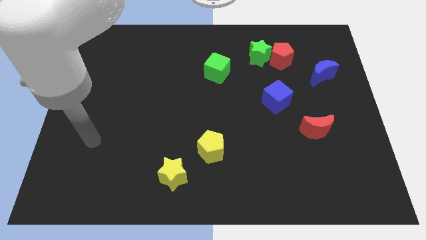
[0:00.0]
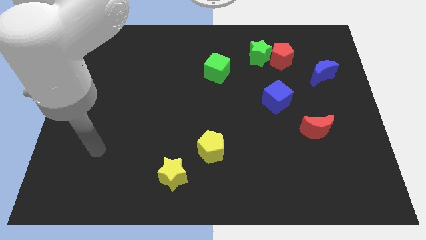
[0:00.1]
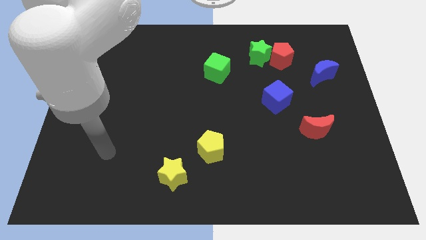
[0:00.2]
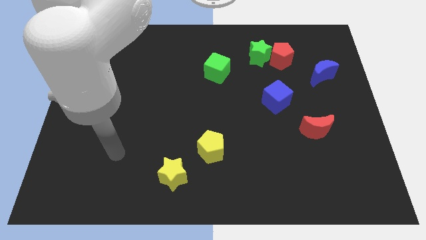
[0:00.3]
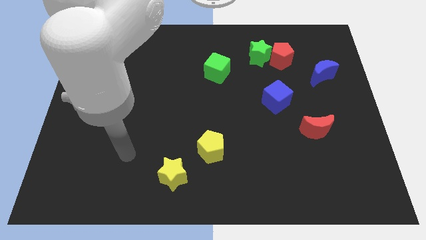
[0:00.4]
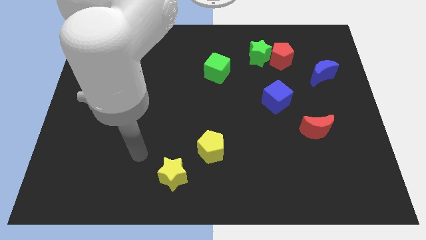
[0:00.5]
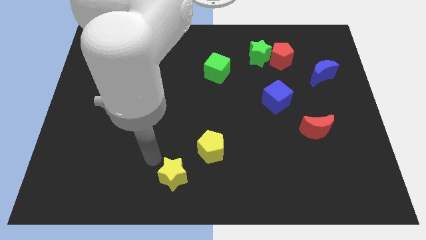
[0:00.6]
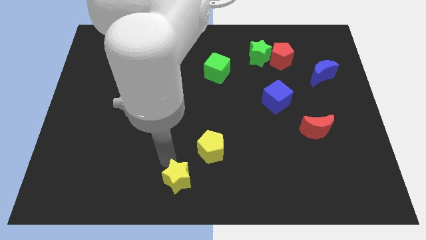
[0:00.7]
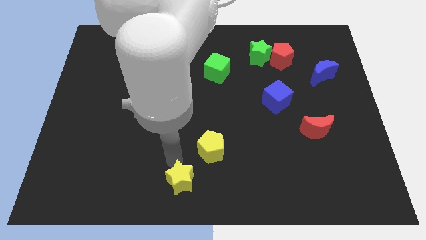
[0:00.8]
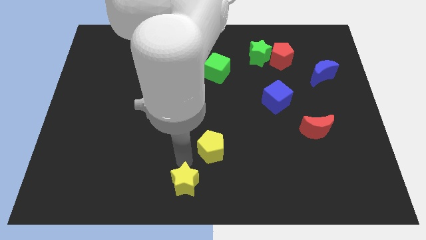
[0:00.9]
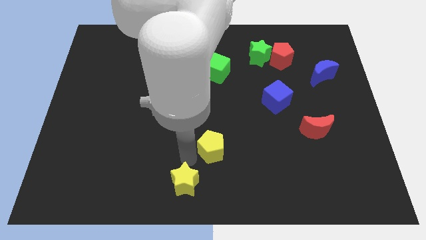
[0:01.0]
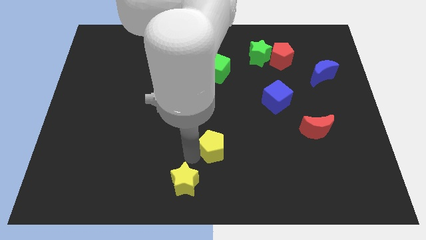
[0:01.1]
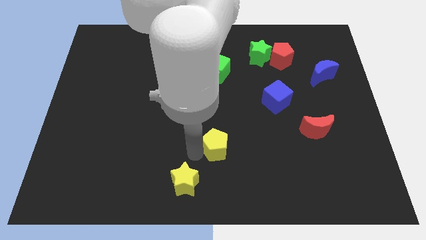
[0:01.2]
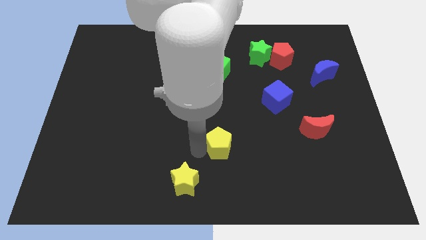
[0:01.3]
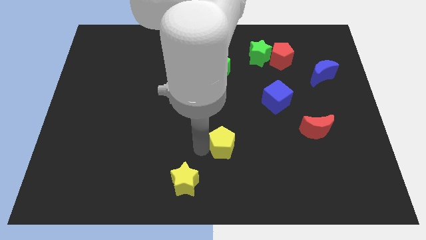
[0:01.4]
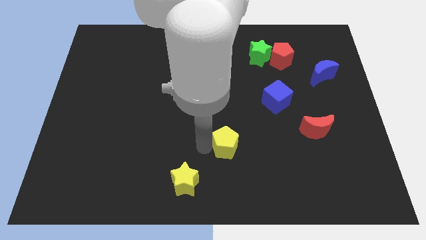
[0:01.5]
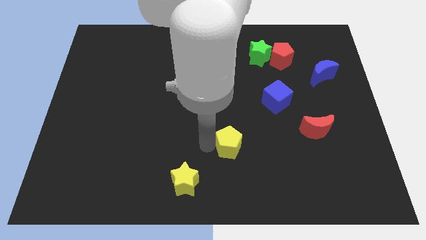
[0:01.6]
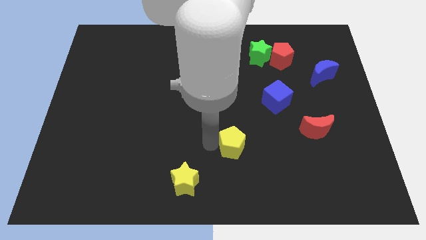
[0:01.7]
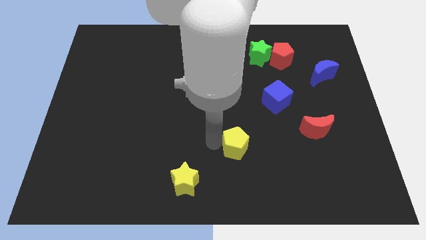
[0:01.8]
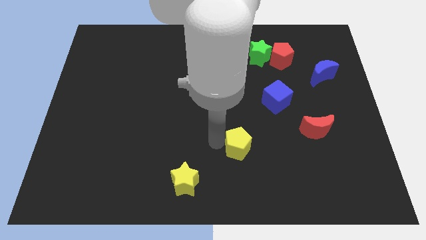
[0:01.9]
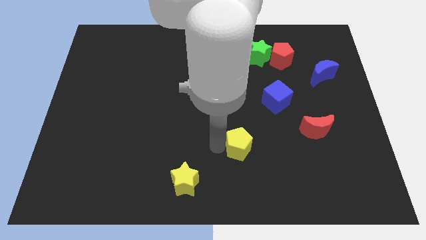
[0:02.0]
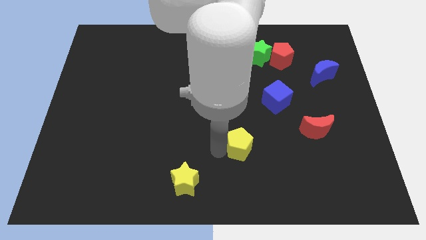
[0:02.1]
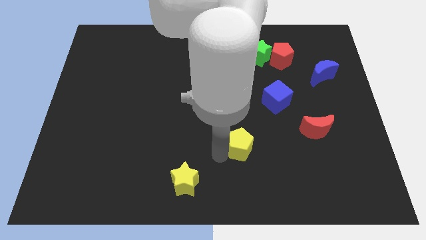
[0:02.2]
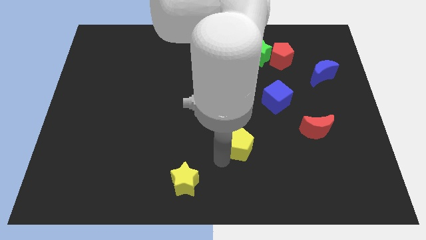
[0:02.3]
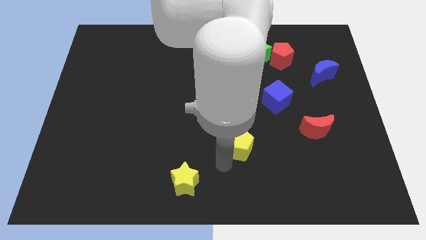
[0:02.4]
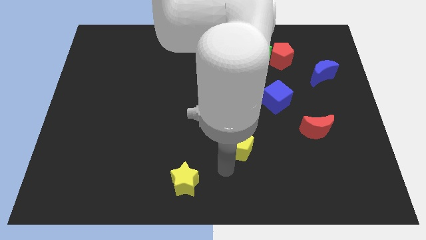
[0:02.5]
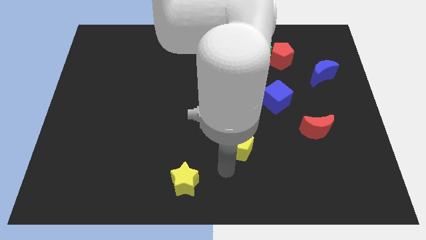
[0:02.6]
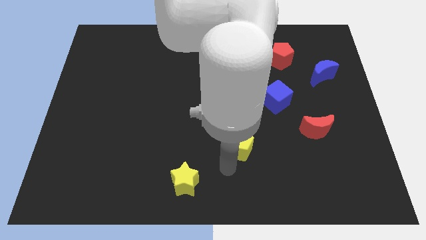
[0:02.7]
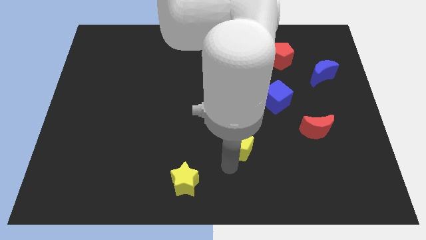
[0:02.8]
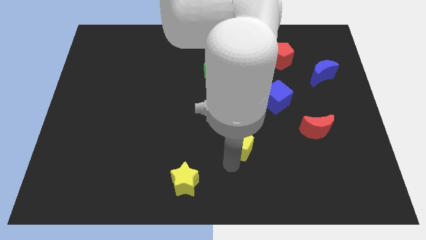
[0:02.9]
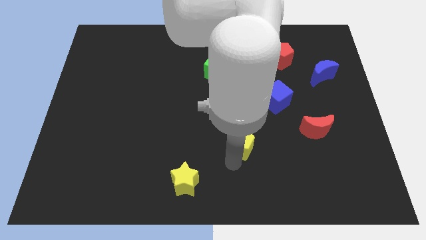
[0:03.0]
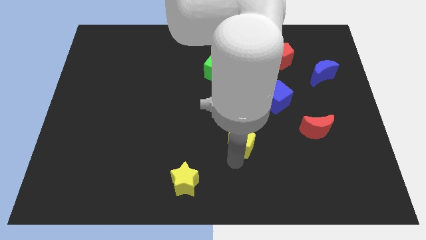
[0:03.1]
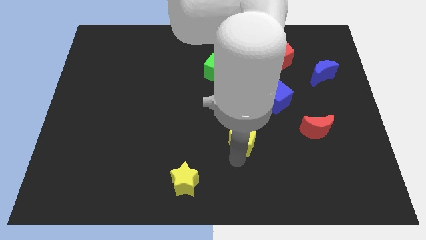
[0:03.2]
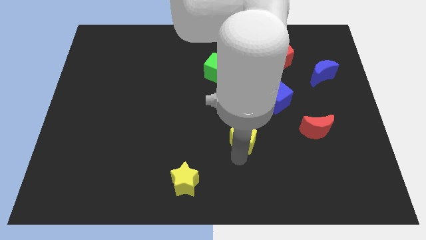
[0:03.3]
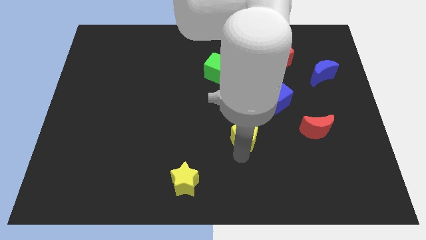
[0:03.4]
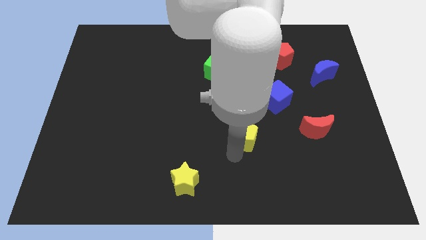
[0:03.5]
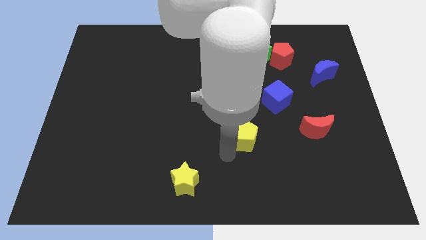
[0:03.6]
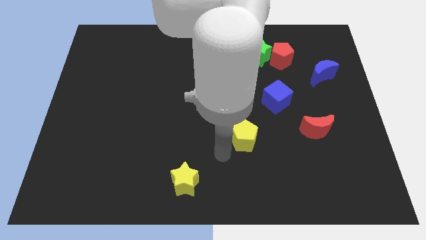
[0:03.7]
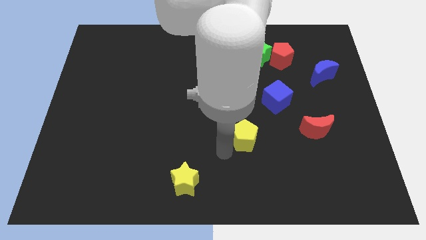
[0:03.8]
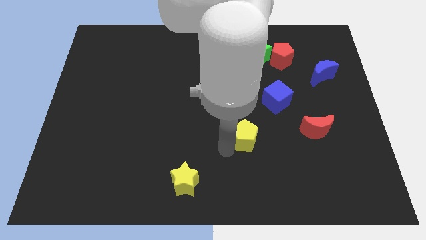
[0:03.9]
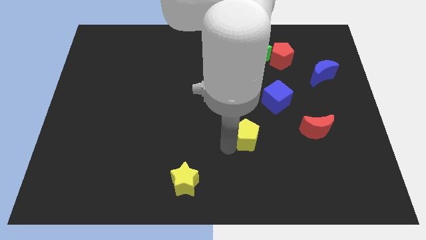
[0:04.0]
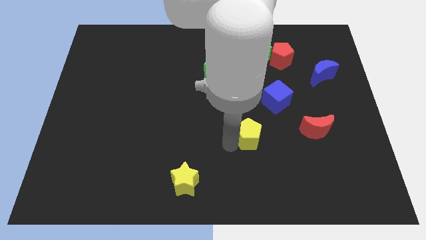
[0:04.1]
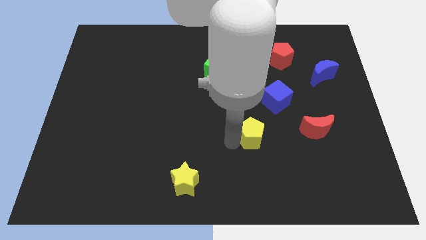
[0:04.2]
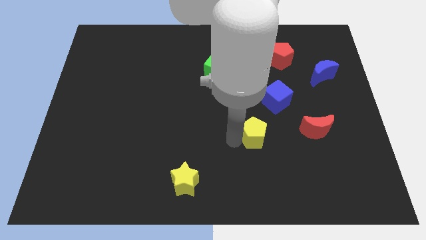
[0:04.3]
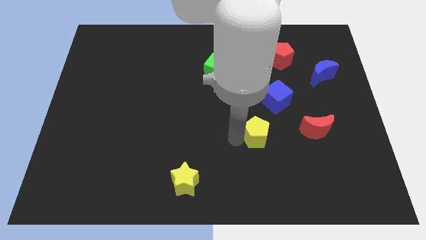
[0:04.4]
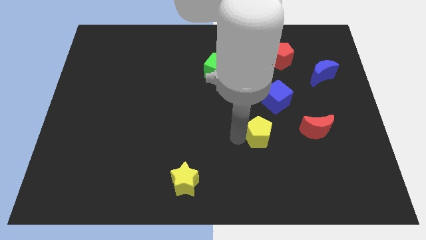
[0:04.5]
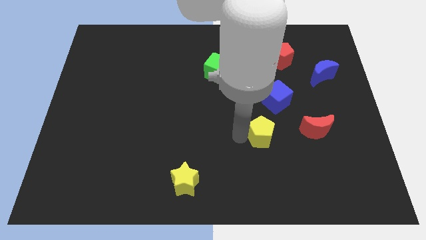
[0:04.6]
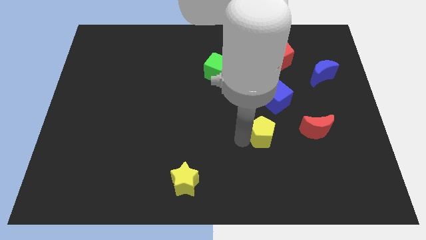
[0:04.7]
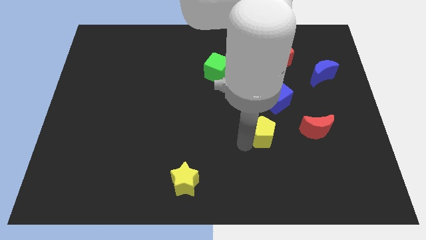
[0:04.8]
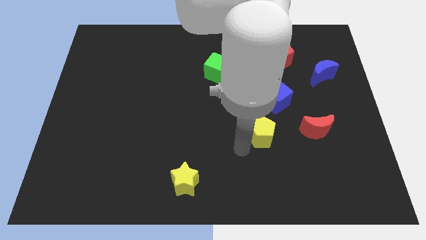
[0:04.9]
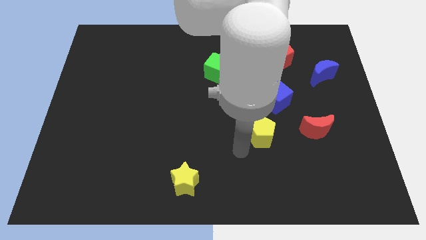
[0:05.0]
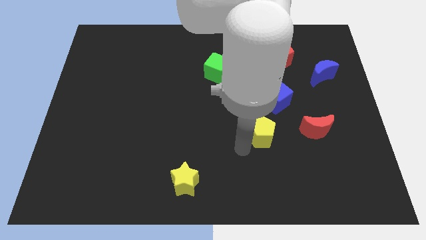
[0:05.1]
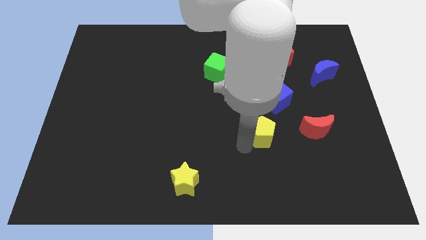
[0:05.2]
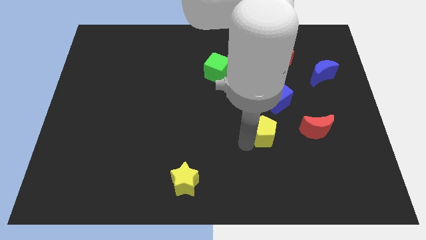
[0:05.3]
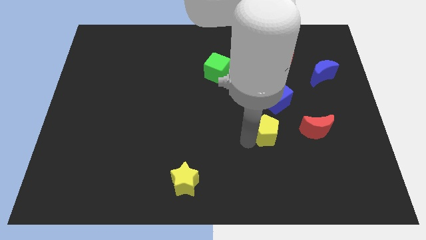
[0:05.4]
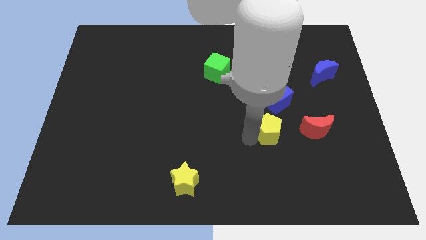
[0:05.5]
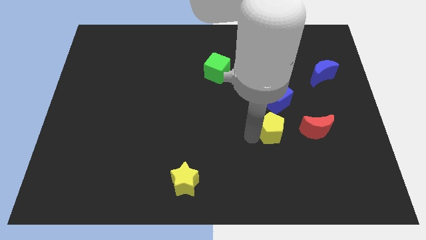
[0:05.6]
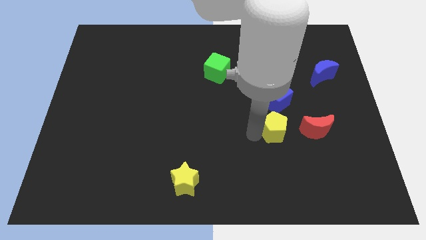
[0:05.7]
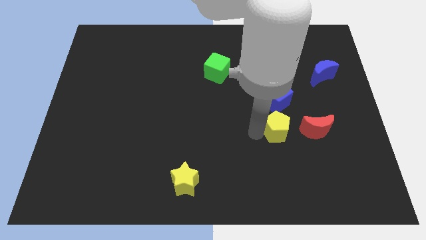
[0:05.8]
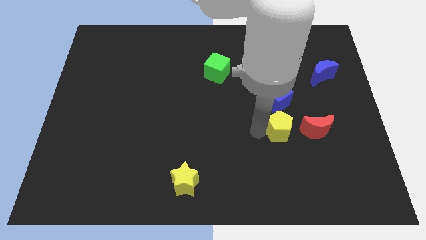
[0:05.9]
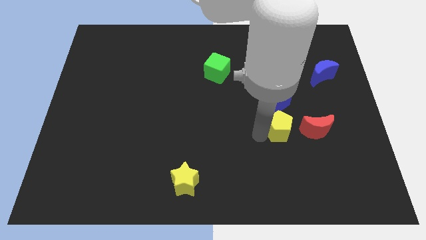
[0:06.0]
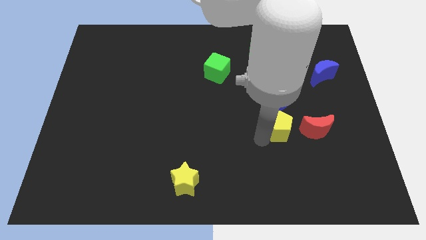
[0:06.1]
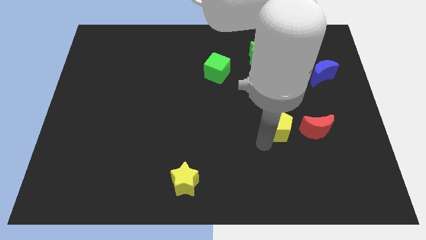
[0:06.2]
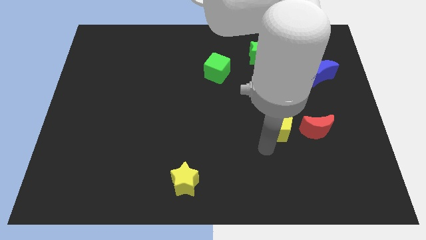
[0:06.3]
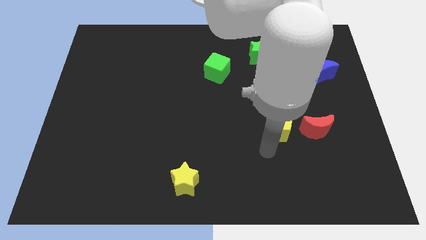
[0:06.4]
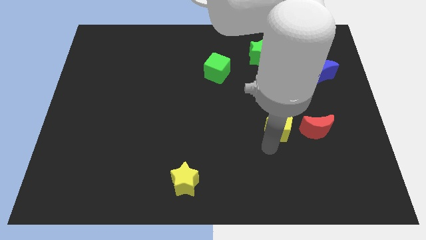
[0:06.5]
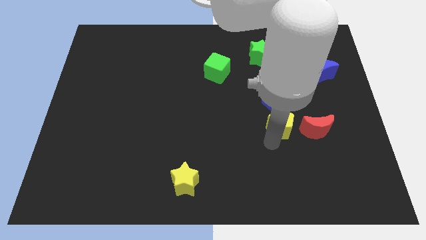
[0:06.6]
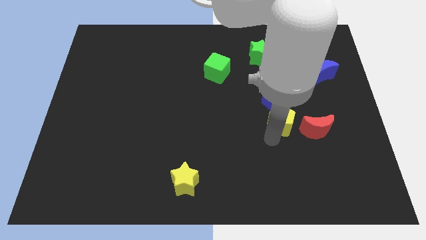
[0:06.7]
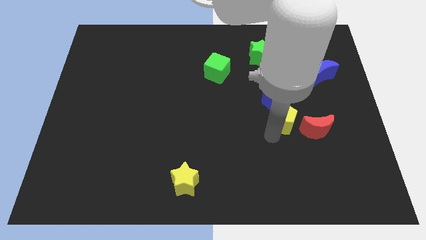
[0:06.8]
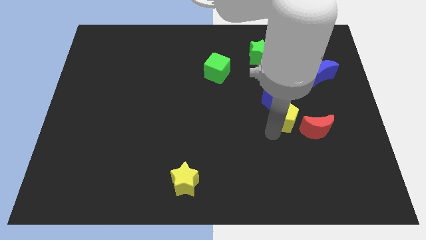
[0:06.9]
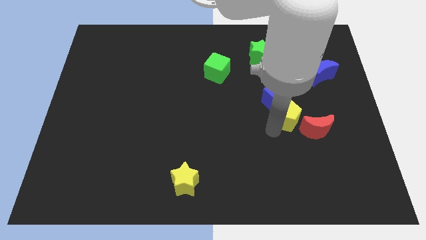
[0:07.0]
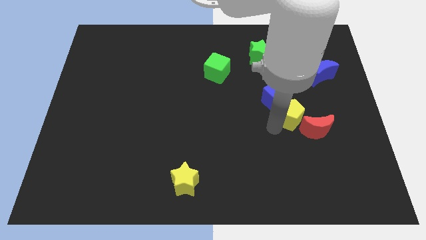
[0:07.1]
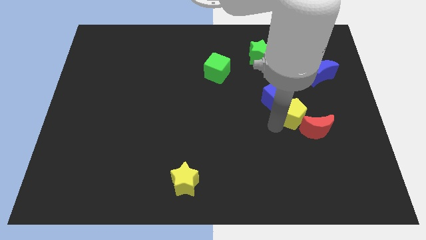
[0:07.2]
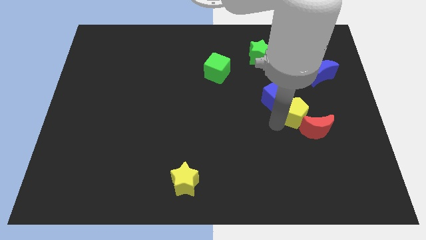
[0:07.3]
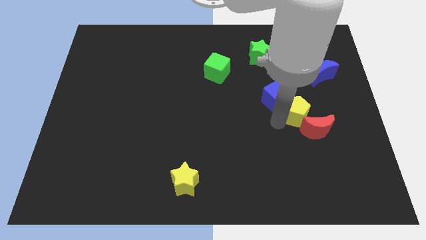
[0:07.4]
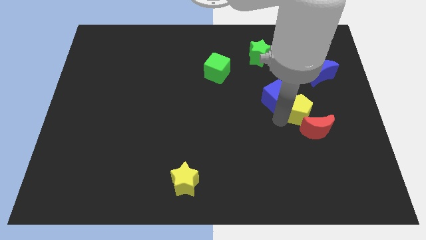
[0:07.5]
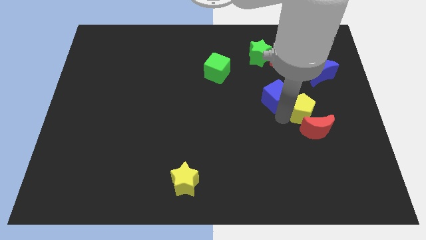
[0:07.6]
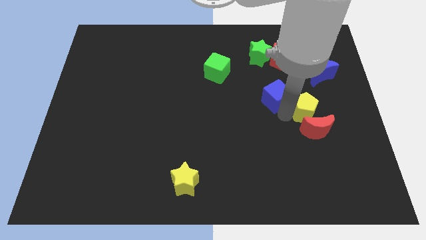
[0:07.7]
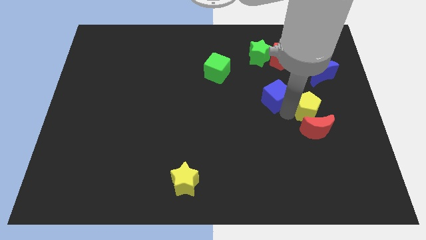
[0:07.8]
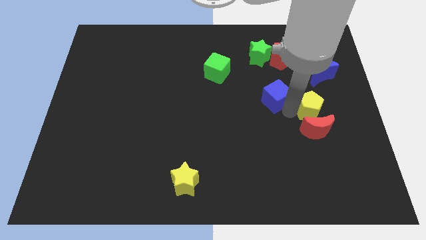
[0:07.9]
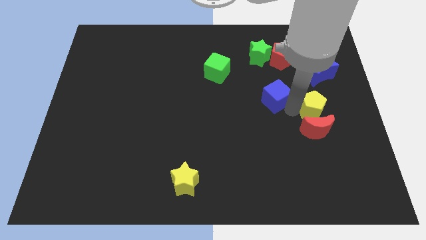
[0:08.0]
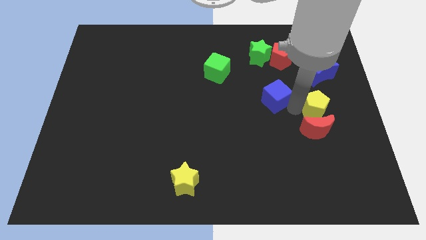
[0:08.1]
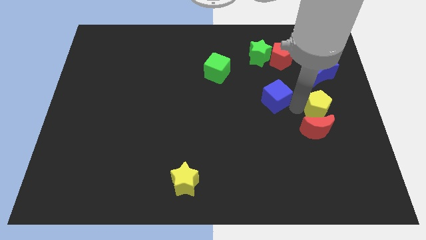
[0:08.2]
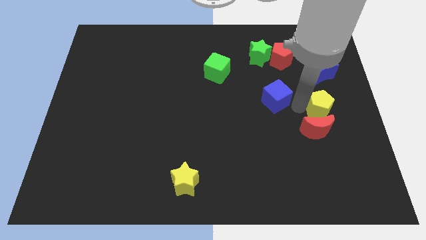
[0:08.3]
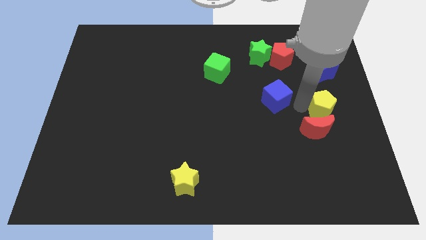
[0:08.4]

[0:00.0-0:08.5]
put the yellow pentagon to the center right
